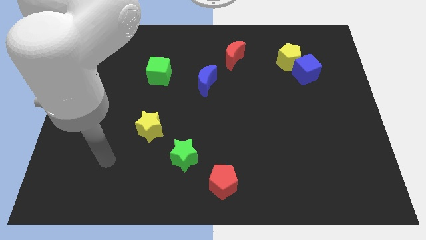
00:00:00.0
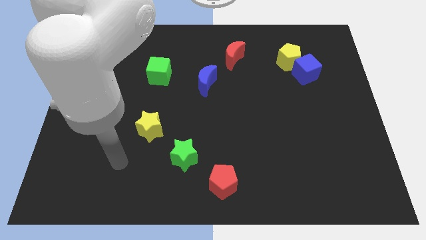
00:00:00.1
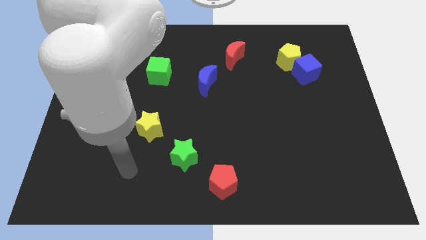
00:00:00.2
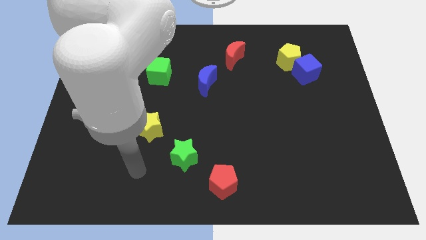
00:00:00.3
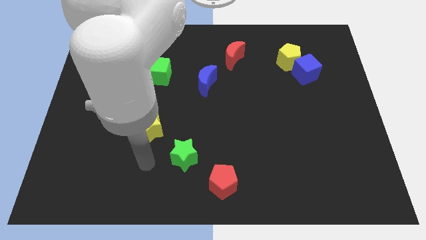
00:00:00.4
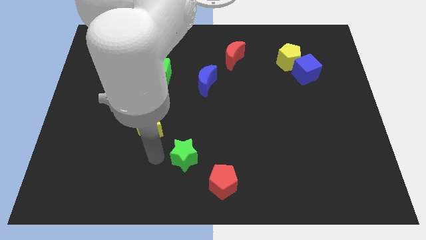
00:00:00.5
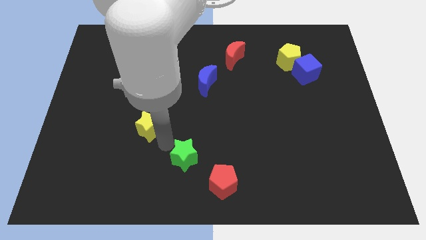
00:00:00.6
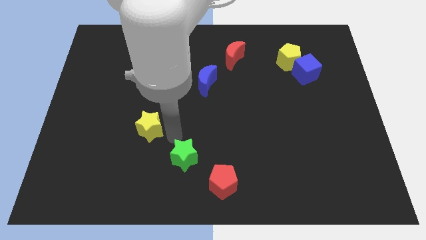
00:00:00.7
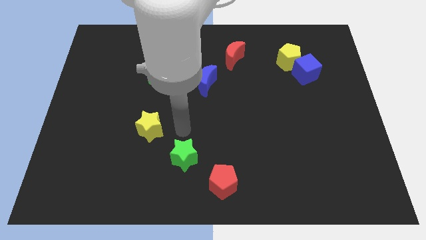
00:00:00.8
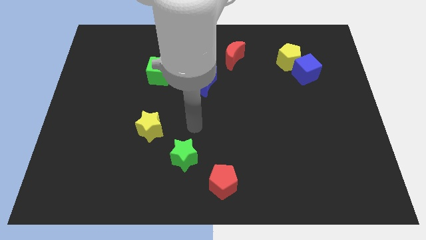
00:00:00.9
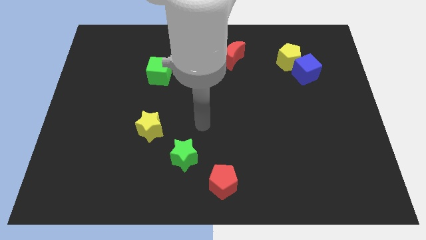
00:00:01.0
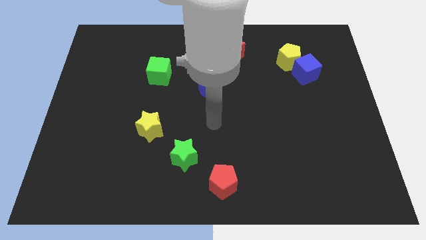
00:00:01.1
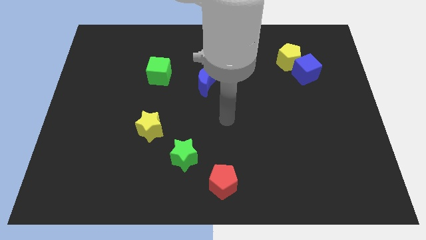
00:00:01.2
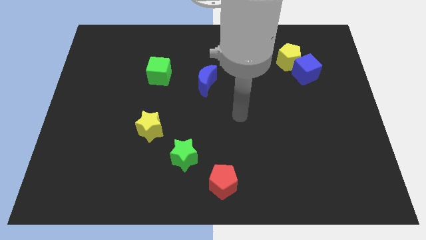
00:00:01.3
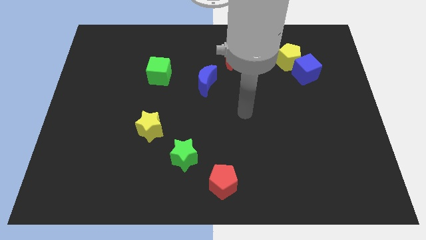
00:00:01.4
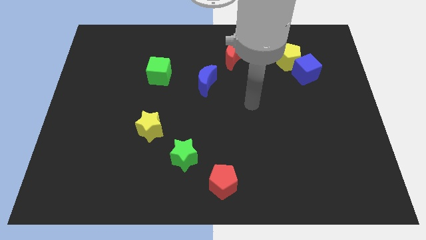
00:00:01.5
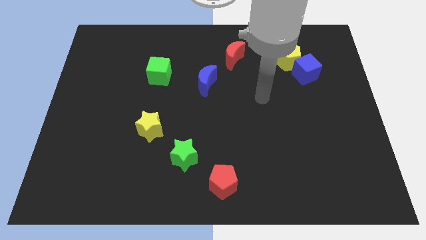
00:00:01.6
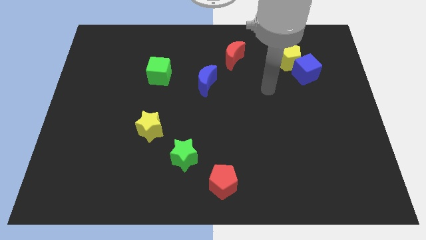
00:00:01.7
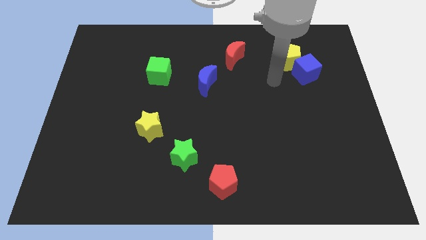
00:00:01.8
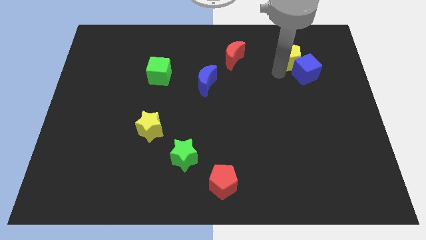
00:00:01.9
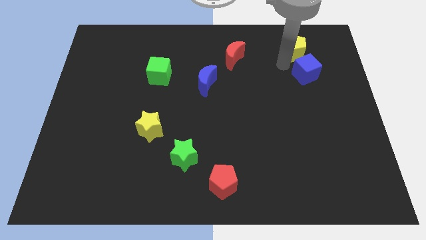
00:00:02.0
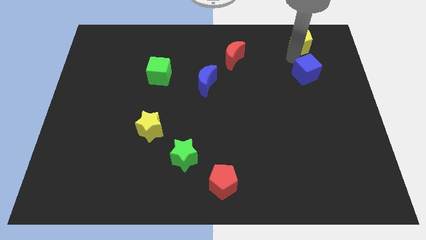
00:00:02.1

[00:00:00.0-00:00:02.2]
separate the blue cube from the yellow pentagon

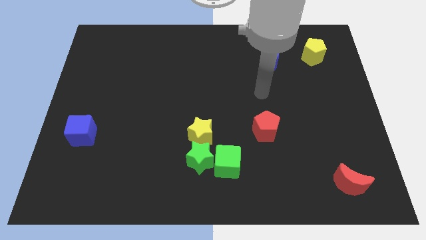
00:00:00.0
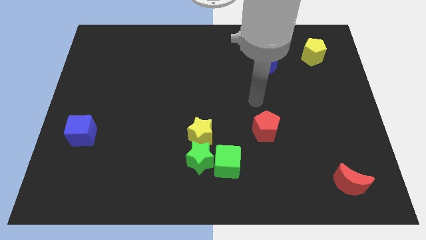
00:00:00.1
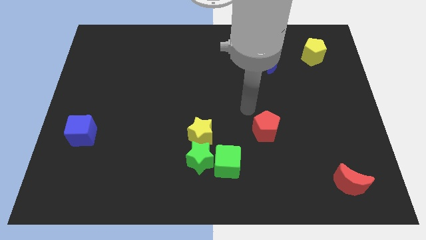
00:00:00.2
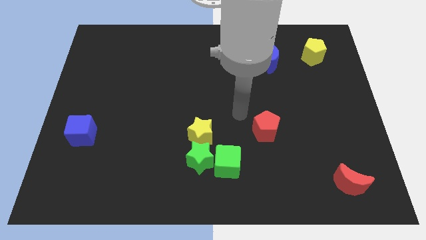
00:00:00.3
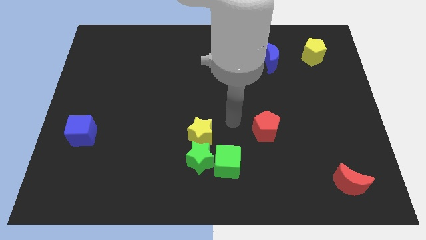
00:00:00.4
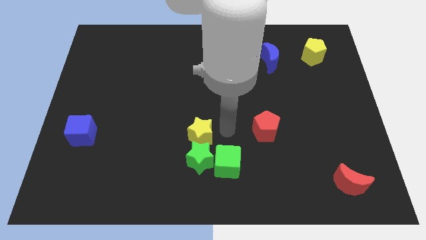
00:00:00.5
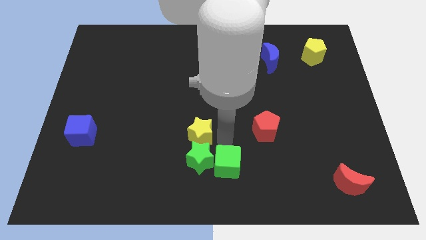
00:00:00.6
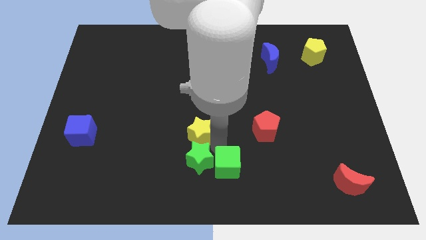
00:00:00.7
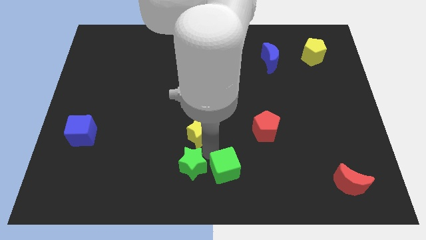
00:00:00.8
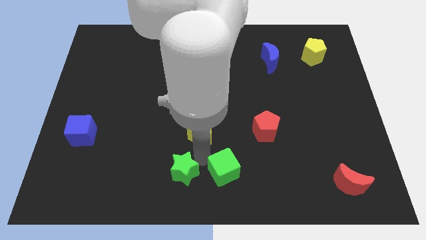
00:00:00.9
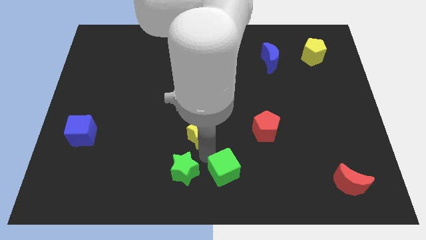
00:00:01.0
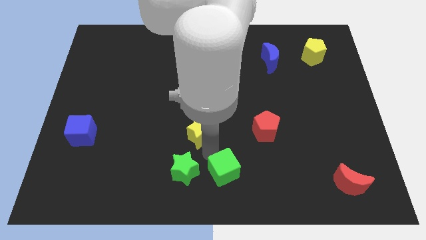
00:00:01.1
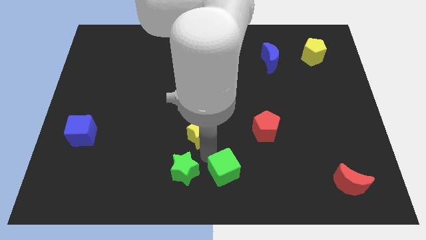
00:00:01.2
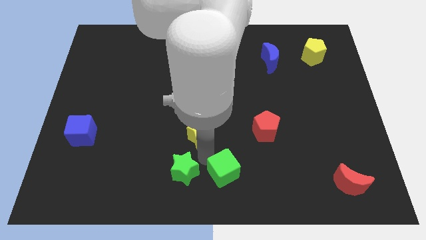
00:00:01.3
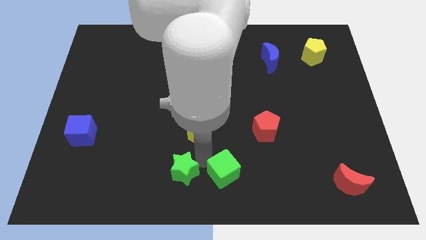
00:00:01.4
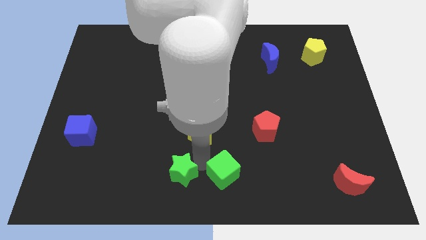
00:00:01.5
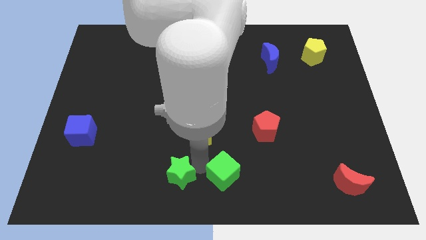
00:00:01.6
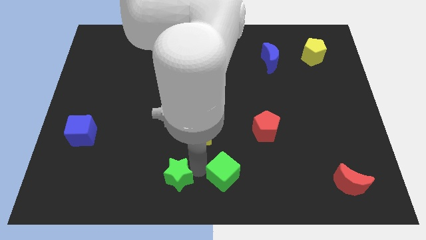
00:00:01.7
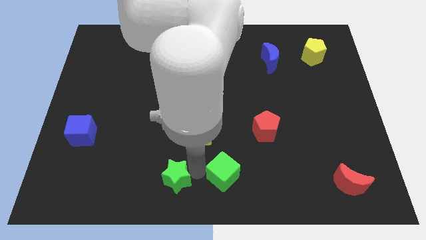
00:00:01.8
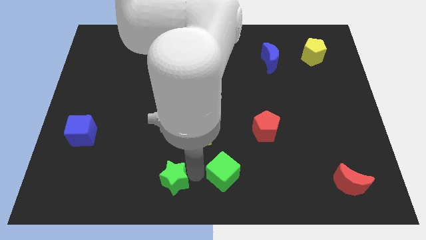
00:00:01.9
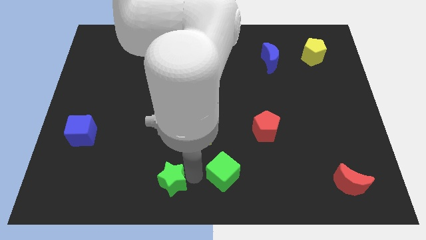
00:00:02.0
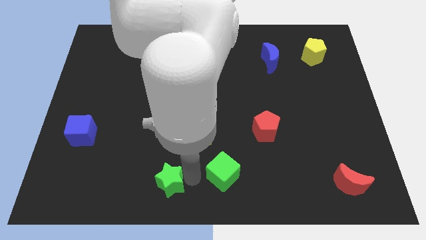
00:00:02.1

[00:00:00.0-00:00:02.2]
separate the green star from the green cube and yellow star

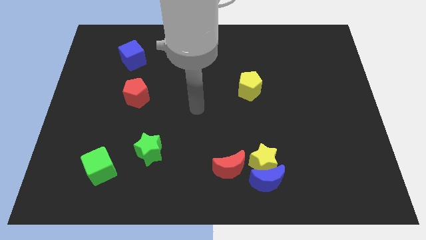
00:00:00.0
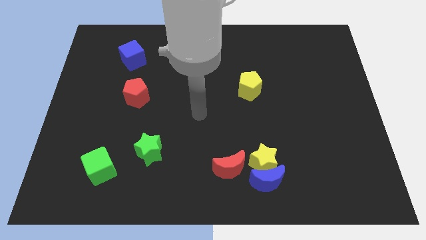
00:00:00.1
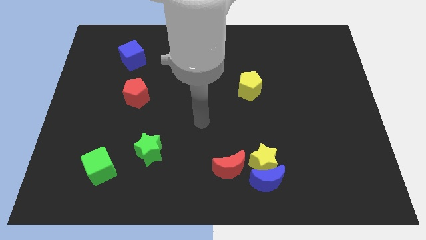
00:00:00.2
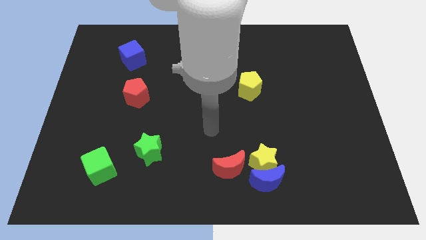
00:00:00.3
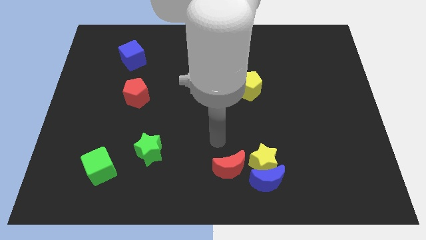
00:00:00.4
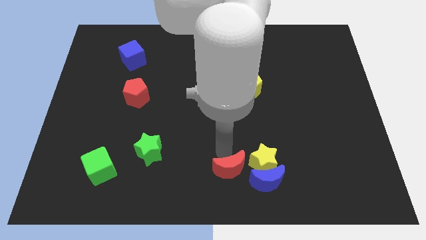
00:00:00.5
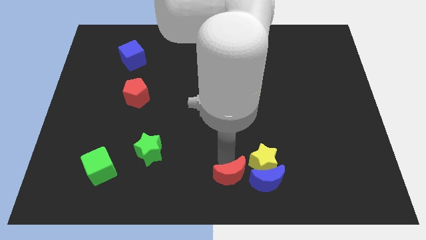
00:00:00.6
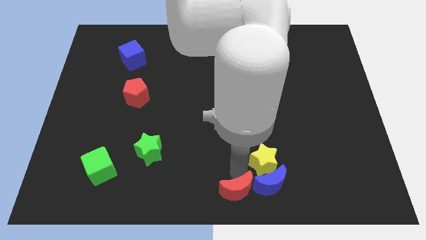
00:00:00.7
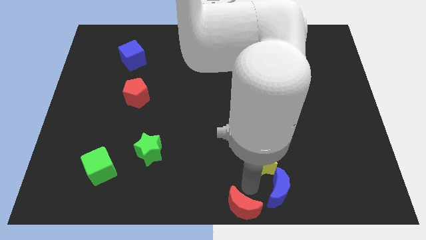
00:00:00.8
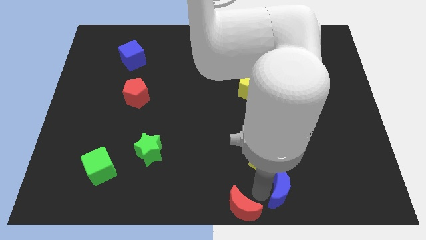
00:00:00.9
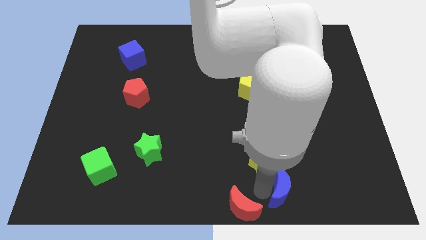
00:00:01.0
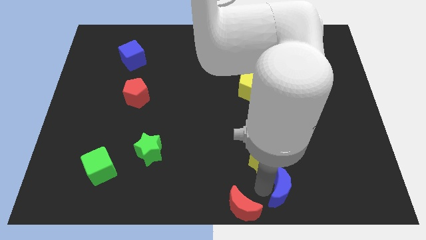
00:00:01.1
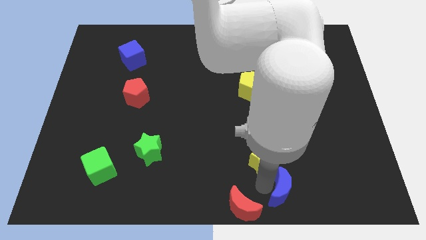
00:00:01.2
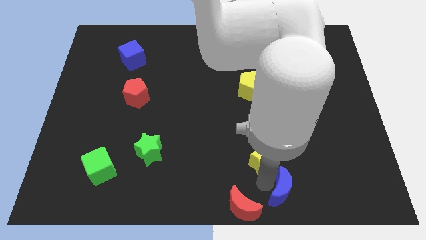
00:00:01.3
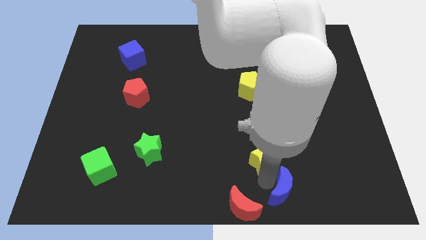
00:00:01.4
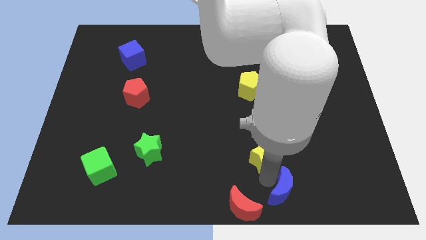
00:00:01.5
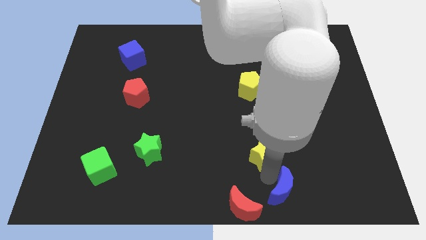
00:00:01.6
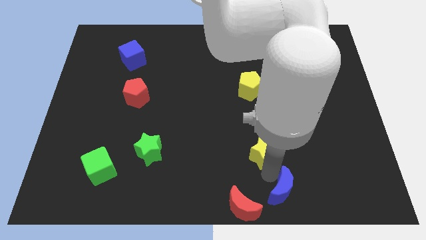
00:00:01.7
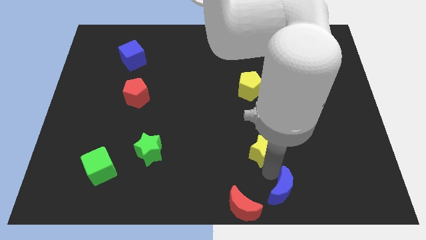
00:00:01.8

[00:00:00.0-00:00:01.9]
move the yellow star away from the blue moon and red moon

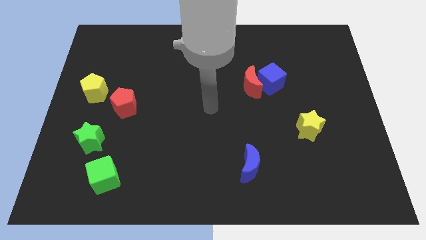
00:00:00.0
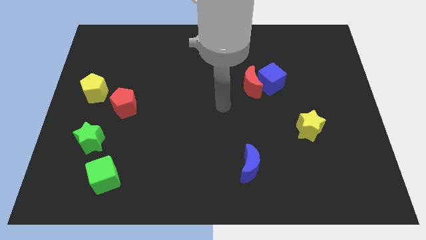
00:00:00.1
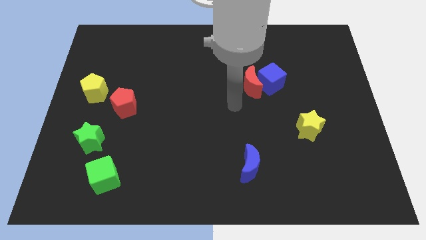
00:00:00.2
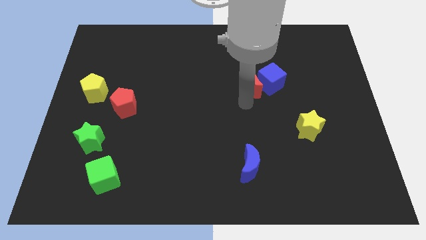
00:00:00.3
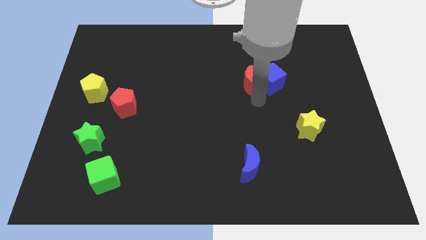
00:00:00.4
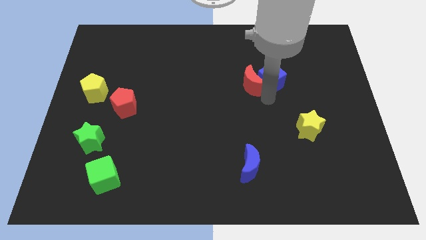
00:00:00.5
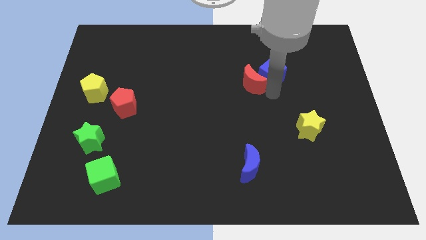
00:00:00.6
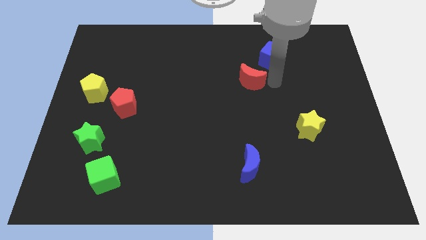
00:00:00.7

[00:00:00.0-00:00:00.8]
pull the red moon apart from the blue cube

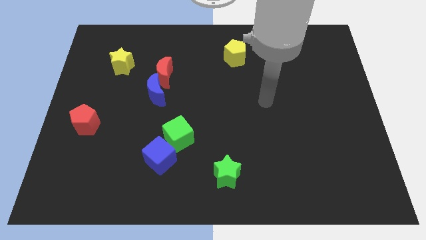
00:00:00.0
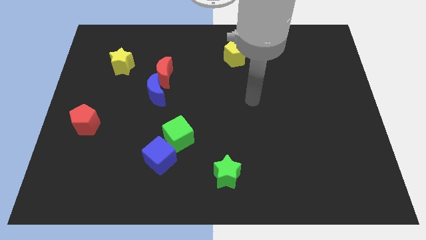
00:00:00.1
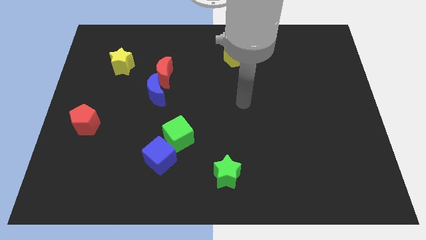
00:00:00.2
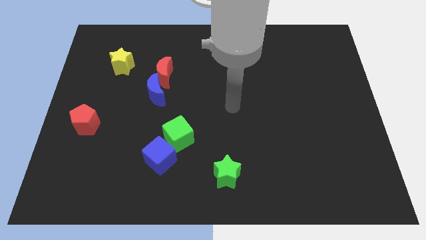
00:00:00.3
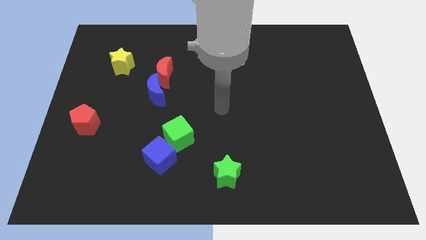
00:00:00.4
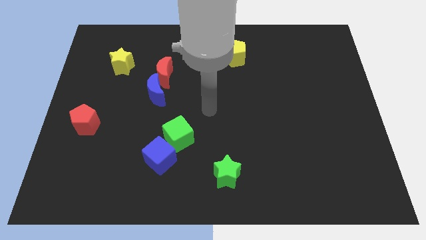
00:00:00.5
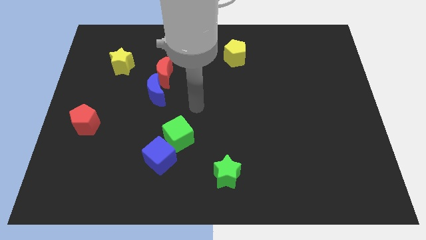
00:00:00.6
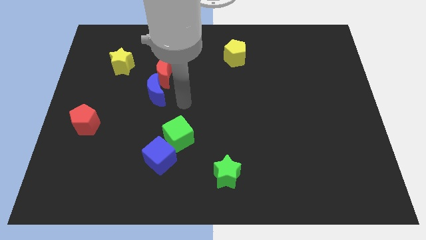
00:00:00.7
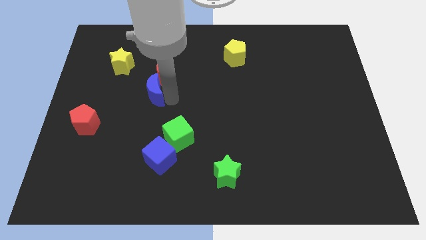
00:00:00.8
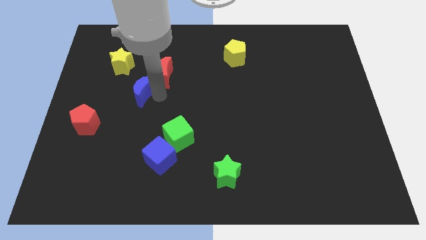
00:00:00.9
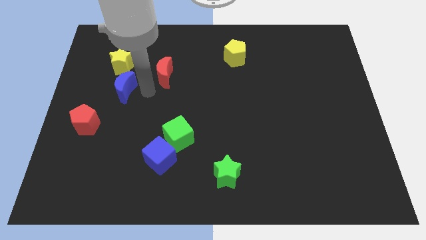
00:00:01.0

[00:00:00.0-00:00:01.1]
separate the red moon from the blue moon

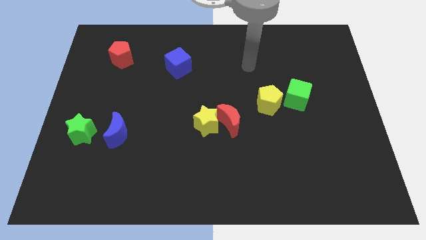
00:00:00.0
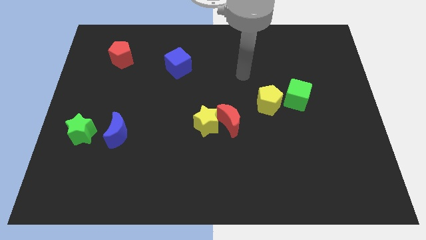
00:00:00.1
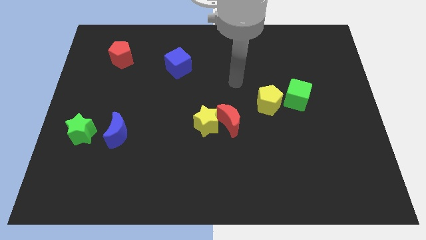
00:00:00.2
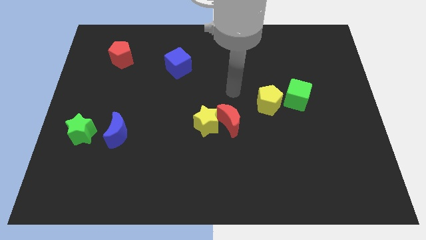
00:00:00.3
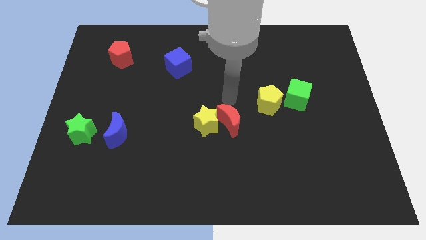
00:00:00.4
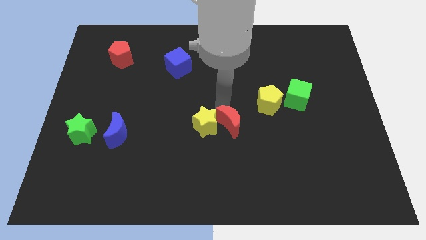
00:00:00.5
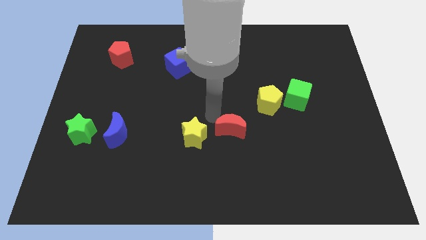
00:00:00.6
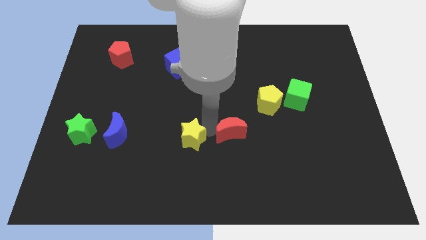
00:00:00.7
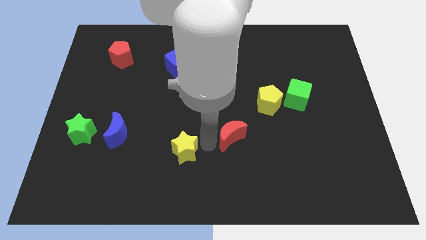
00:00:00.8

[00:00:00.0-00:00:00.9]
move the red moon away from the yellow star

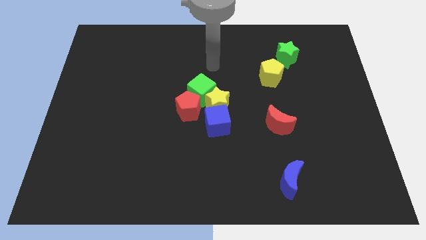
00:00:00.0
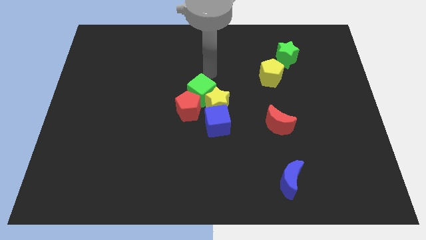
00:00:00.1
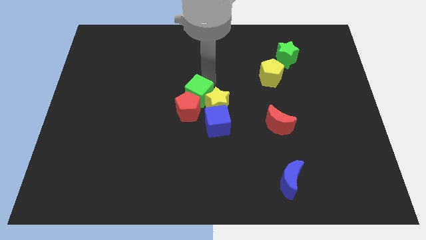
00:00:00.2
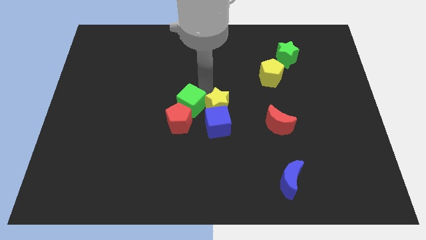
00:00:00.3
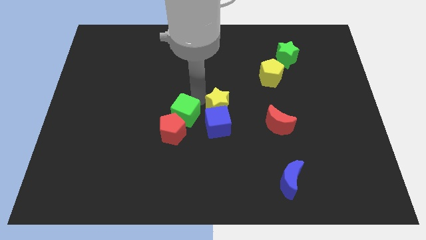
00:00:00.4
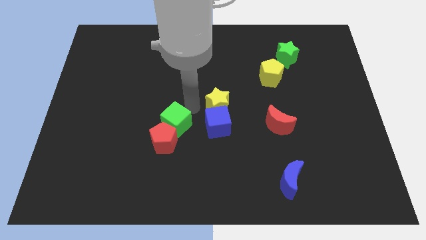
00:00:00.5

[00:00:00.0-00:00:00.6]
move the yellow star away from the blue cube, green cube, and red pentagon
